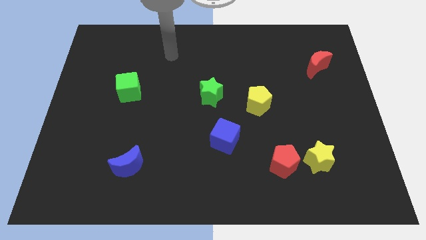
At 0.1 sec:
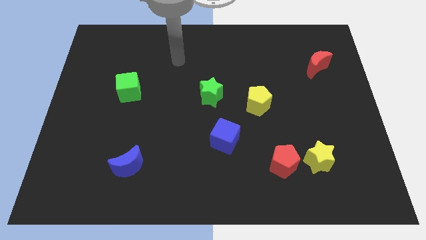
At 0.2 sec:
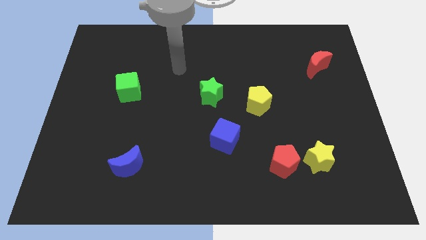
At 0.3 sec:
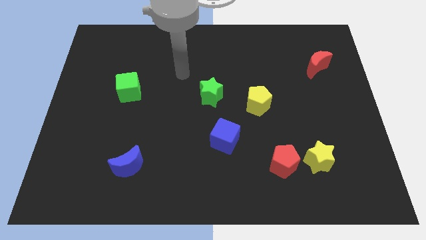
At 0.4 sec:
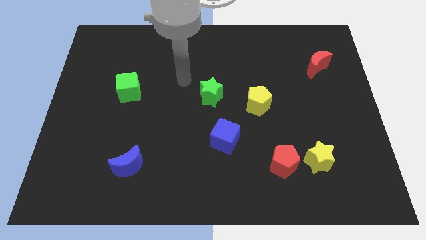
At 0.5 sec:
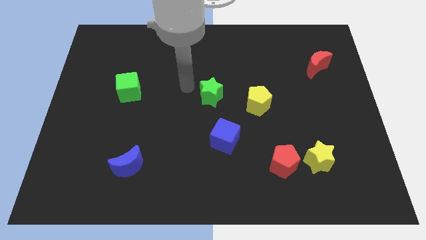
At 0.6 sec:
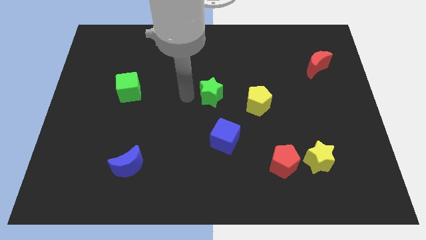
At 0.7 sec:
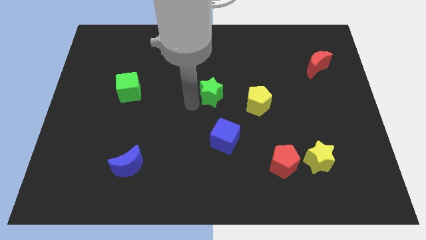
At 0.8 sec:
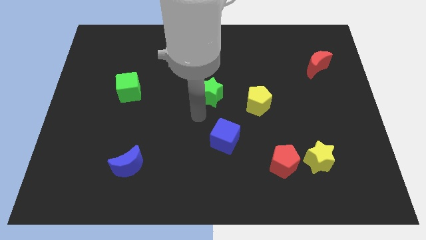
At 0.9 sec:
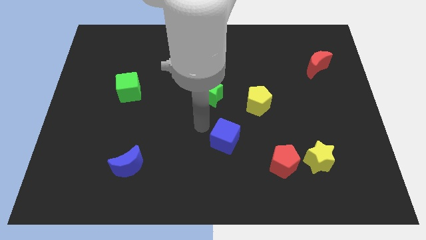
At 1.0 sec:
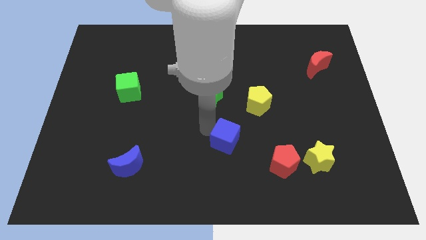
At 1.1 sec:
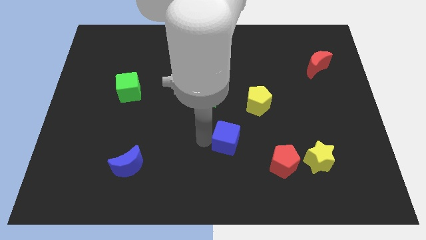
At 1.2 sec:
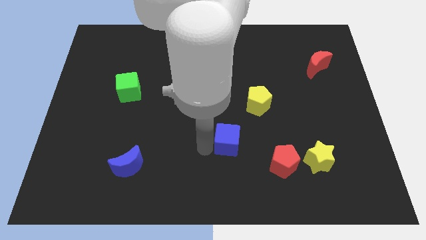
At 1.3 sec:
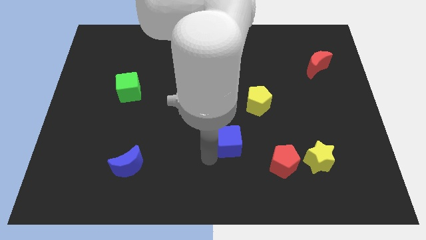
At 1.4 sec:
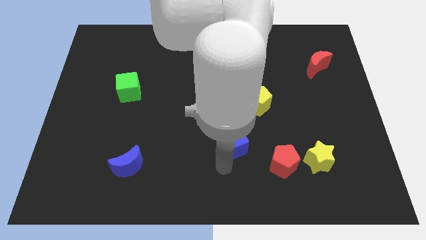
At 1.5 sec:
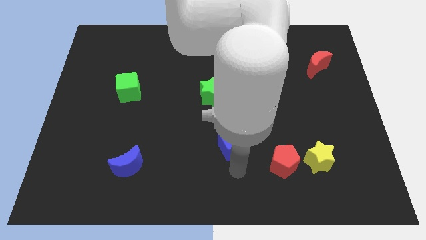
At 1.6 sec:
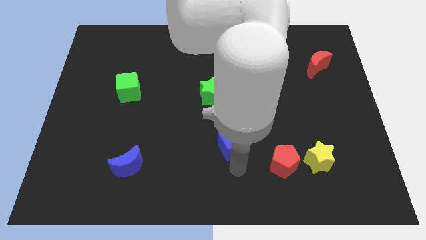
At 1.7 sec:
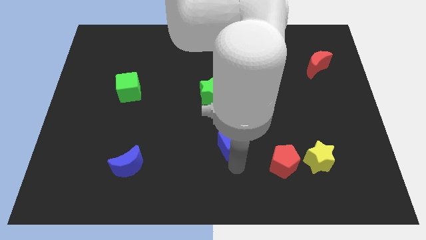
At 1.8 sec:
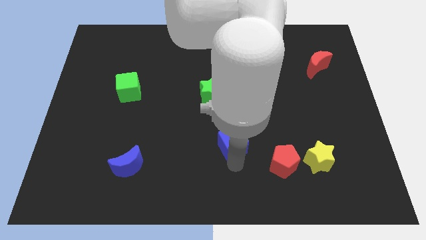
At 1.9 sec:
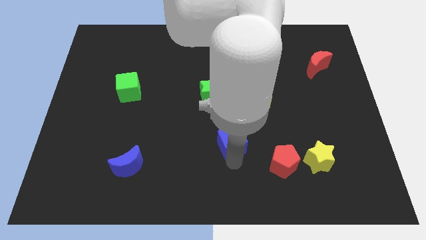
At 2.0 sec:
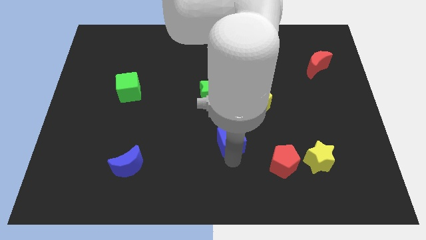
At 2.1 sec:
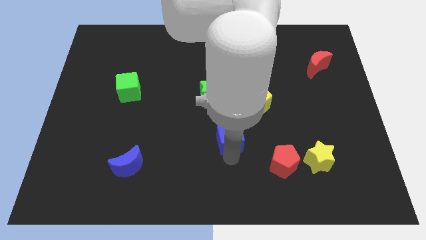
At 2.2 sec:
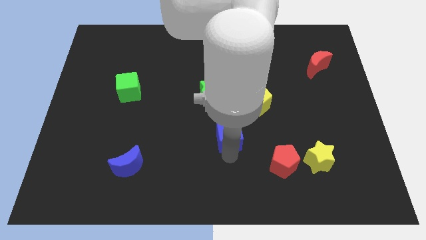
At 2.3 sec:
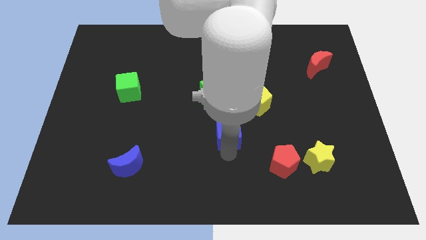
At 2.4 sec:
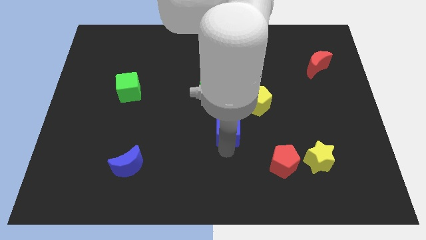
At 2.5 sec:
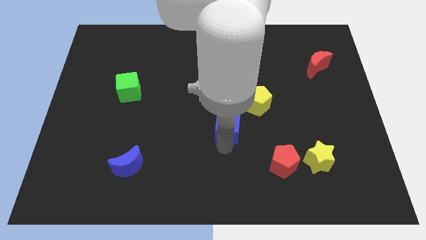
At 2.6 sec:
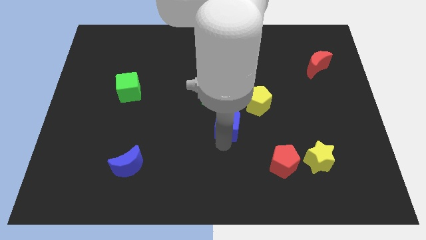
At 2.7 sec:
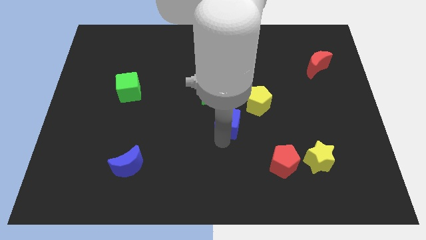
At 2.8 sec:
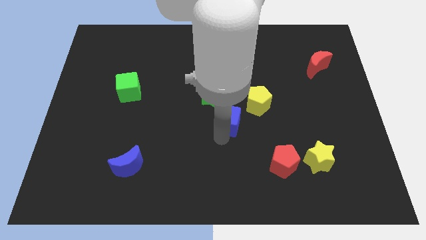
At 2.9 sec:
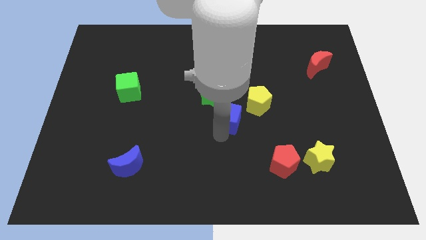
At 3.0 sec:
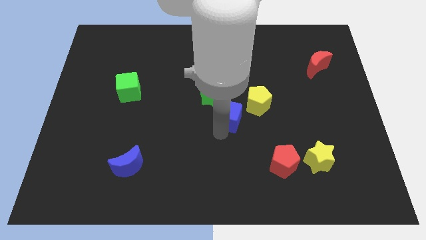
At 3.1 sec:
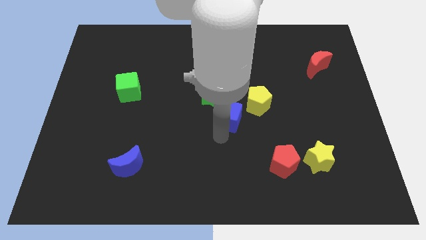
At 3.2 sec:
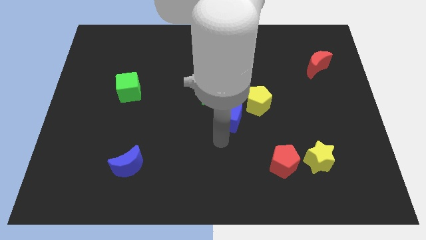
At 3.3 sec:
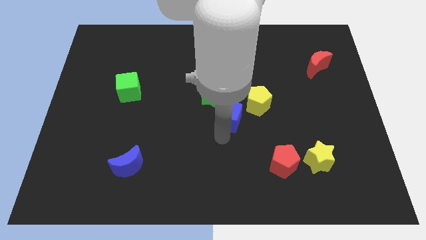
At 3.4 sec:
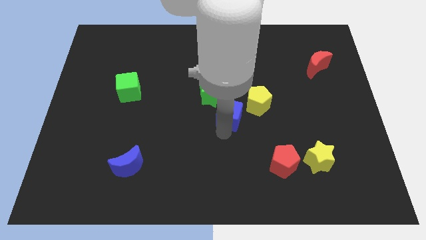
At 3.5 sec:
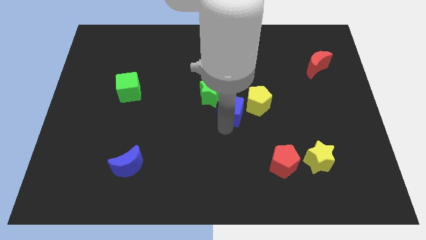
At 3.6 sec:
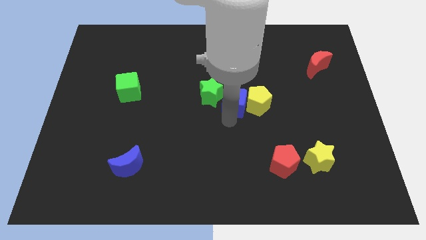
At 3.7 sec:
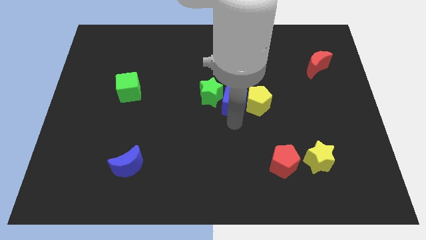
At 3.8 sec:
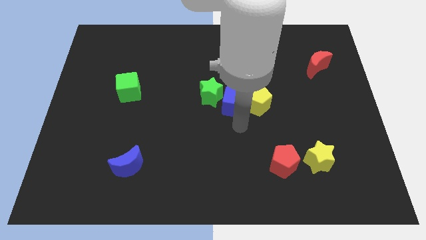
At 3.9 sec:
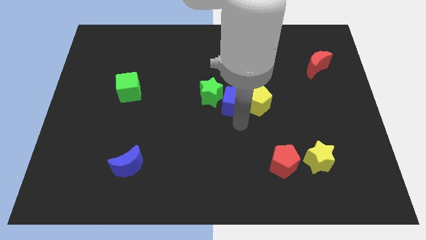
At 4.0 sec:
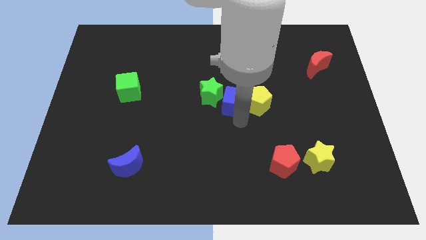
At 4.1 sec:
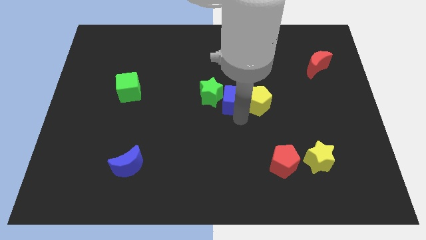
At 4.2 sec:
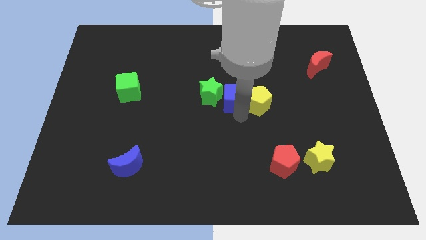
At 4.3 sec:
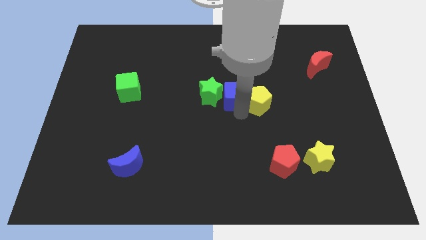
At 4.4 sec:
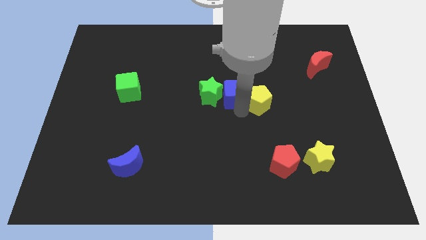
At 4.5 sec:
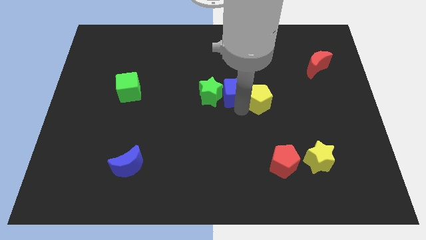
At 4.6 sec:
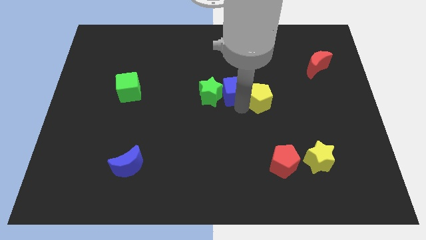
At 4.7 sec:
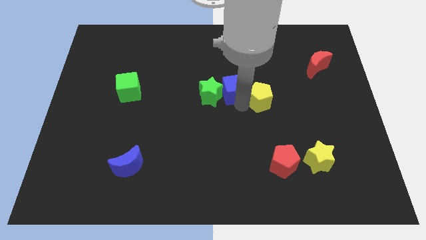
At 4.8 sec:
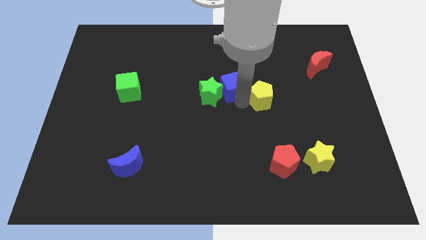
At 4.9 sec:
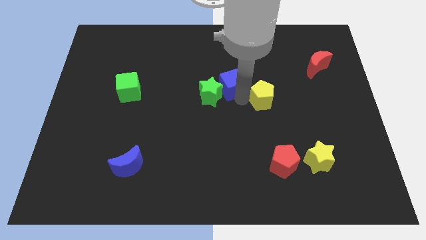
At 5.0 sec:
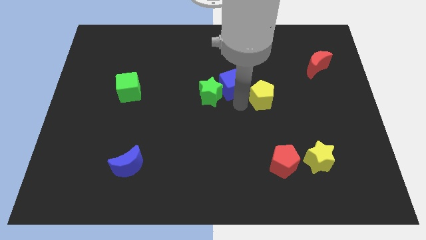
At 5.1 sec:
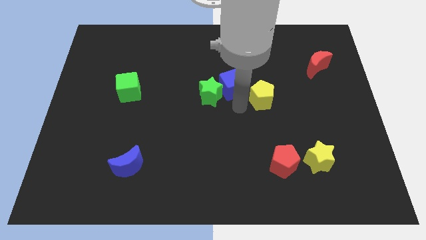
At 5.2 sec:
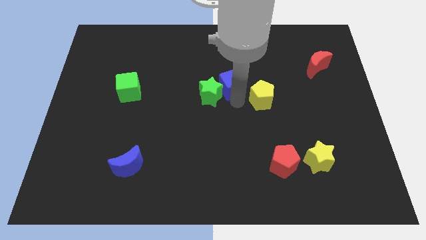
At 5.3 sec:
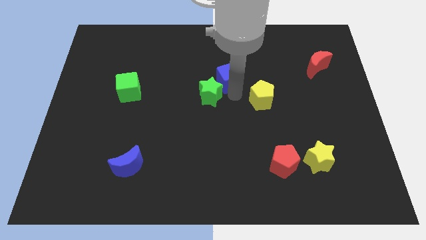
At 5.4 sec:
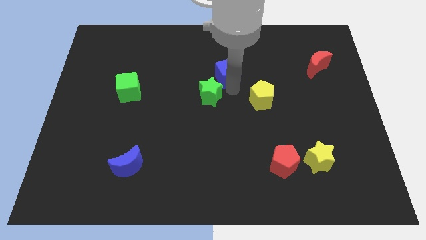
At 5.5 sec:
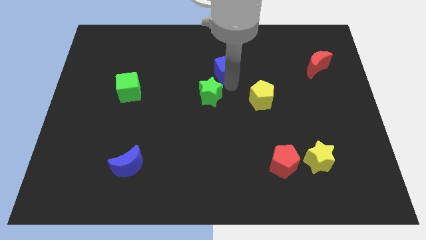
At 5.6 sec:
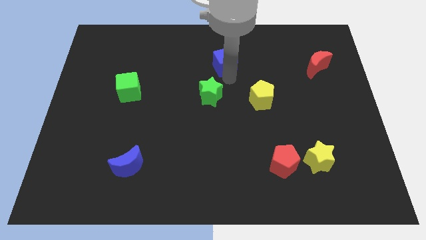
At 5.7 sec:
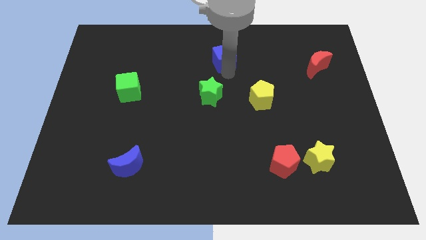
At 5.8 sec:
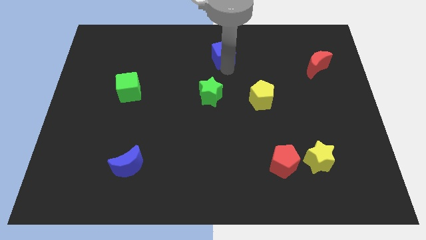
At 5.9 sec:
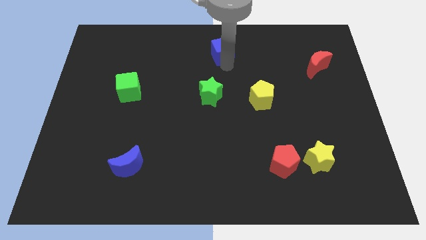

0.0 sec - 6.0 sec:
put the blue cube to the towards your base

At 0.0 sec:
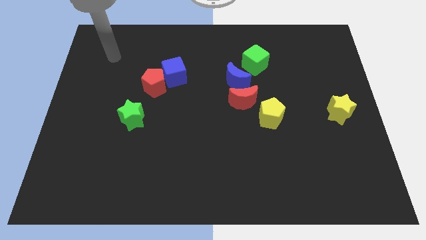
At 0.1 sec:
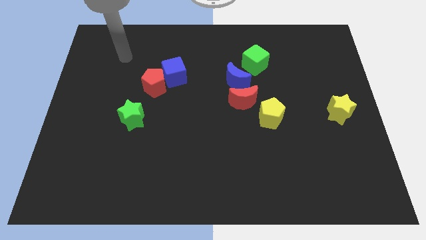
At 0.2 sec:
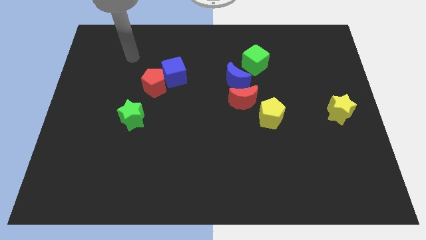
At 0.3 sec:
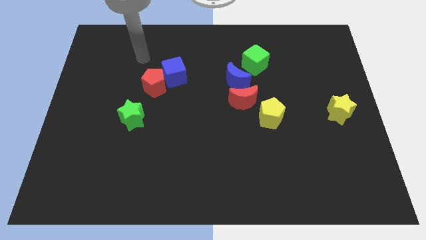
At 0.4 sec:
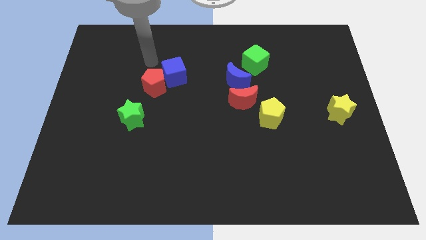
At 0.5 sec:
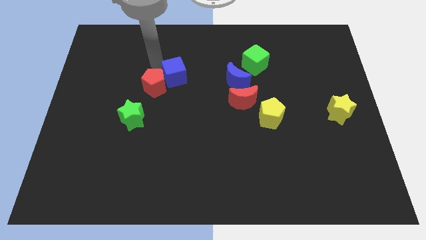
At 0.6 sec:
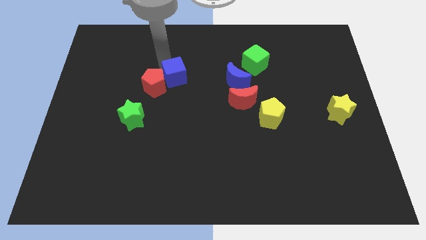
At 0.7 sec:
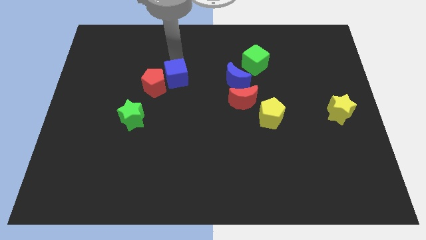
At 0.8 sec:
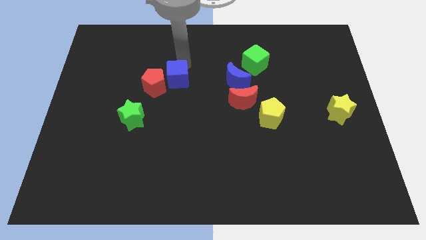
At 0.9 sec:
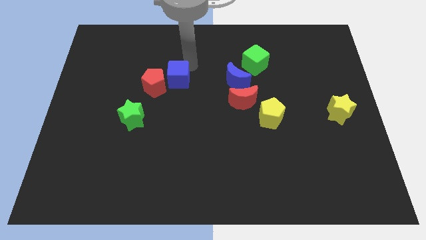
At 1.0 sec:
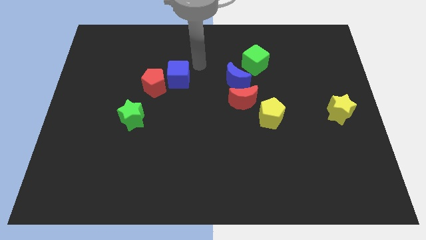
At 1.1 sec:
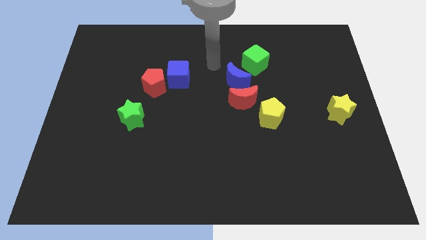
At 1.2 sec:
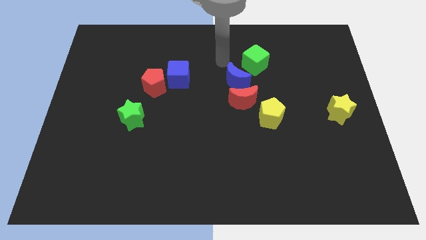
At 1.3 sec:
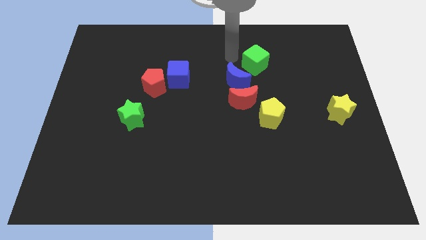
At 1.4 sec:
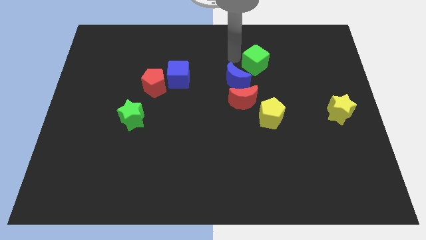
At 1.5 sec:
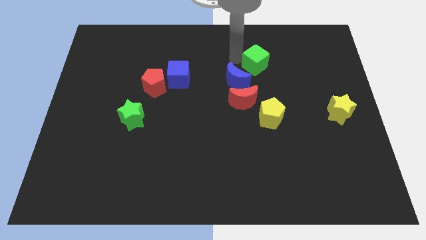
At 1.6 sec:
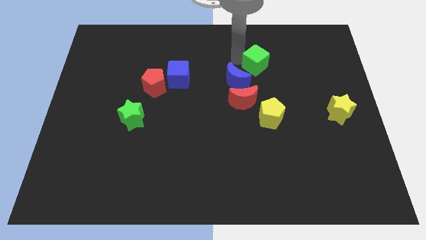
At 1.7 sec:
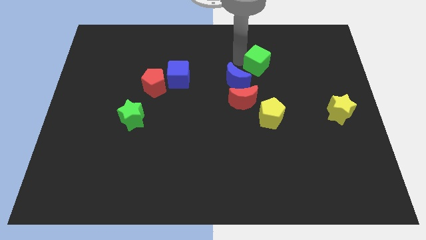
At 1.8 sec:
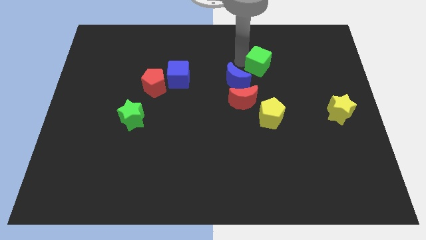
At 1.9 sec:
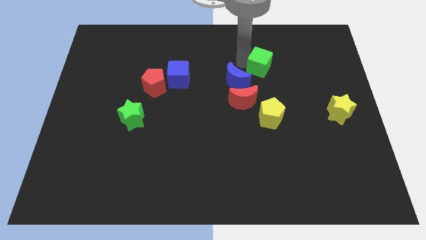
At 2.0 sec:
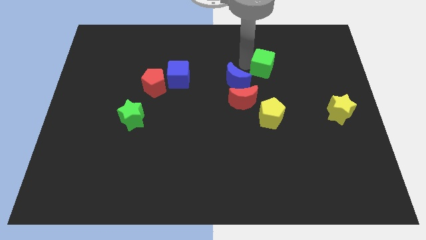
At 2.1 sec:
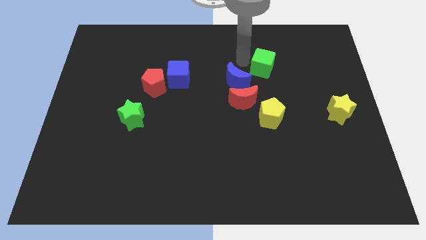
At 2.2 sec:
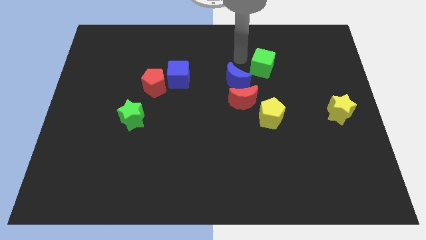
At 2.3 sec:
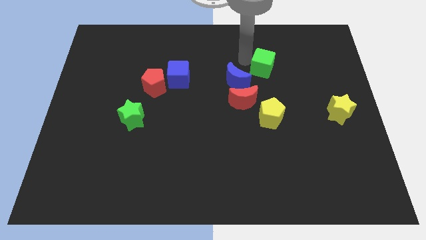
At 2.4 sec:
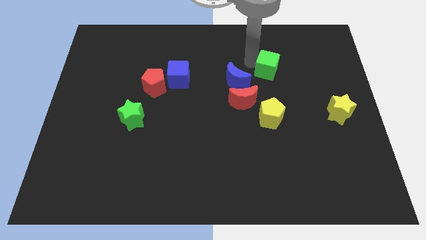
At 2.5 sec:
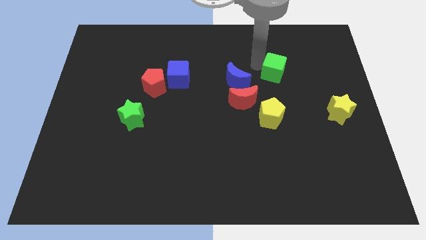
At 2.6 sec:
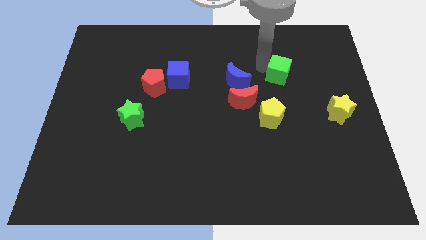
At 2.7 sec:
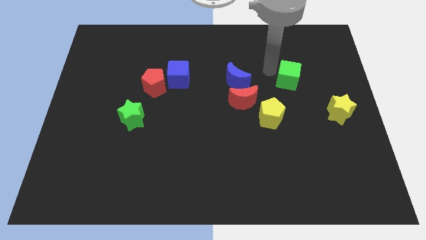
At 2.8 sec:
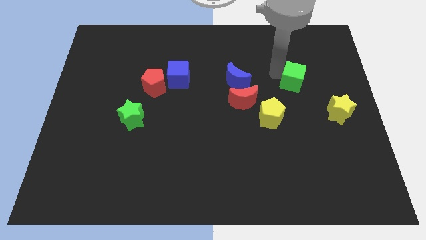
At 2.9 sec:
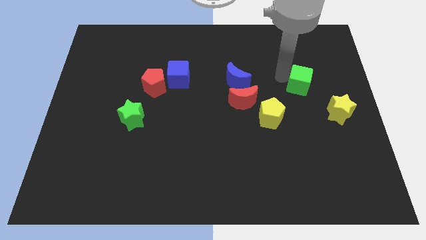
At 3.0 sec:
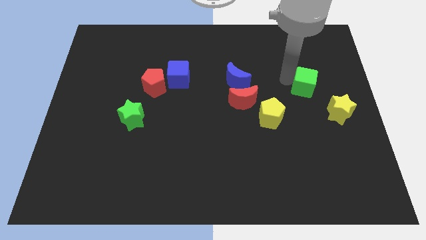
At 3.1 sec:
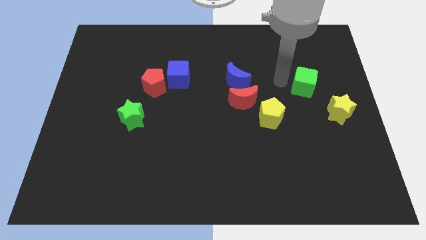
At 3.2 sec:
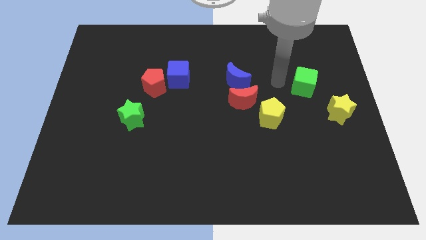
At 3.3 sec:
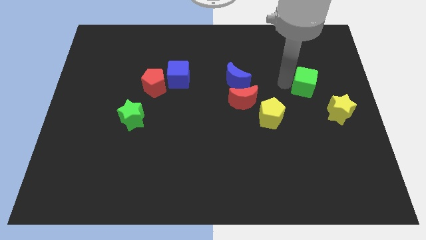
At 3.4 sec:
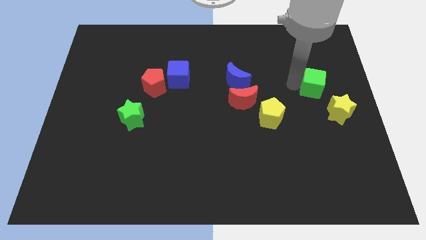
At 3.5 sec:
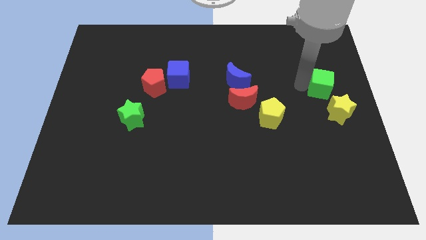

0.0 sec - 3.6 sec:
slide the green cube to the right side of the board
